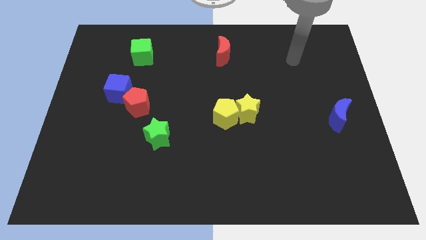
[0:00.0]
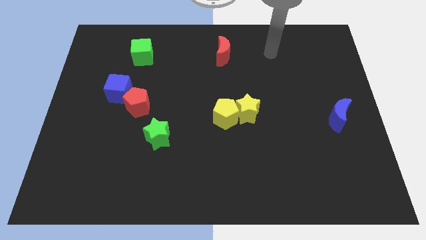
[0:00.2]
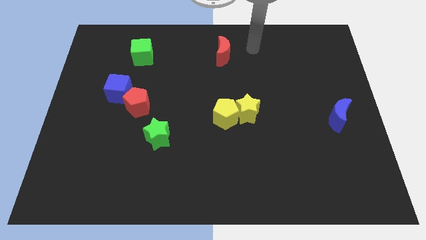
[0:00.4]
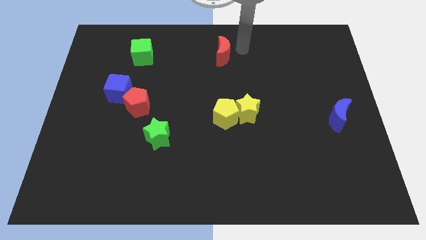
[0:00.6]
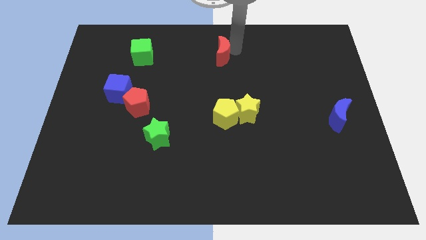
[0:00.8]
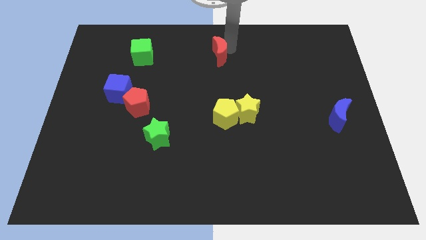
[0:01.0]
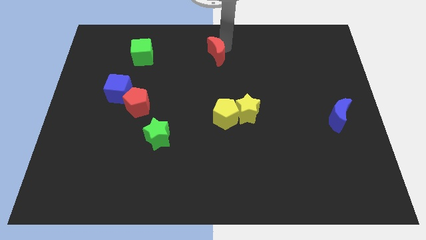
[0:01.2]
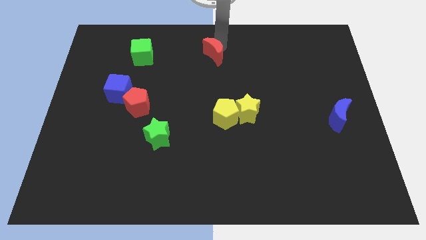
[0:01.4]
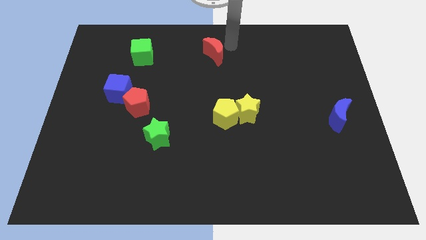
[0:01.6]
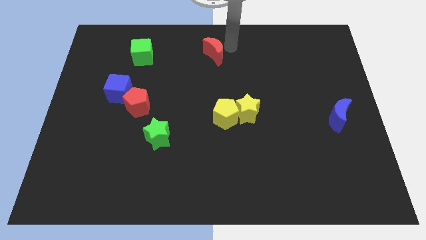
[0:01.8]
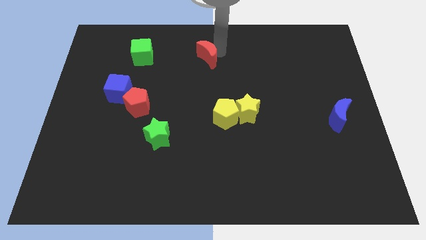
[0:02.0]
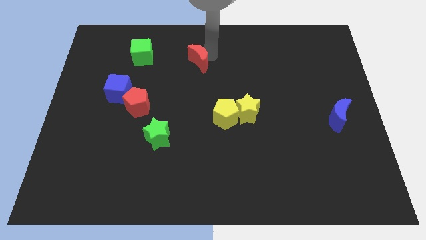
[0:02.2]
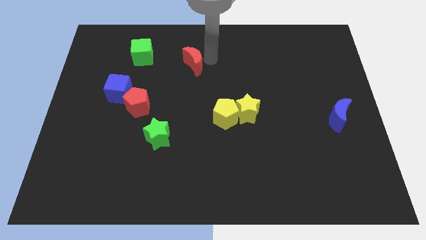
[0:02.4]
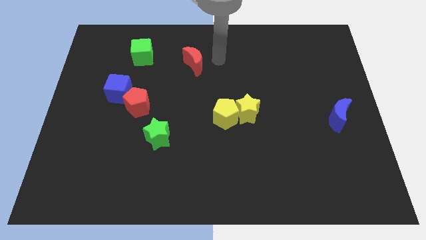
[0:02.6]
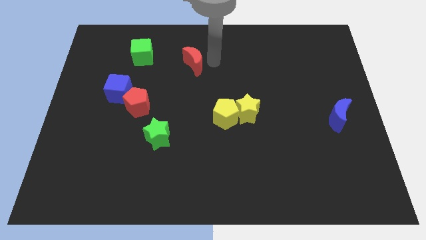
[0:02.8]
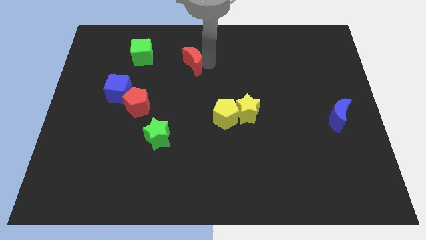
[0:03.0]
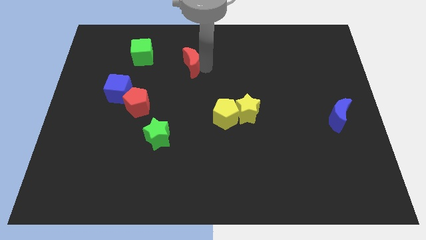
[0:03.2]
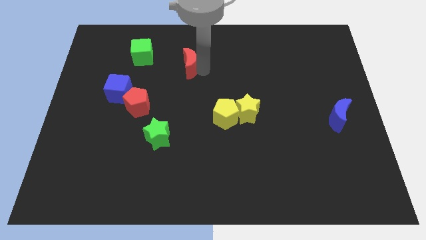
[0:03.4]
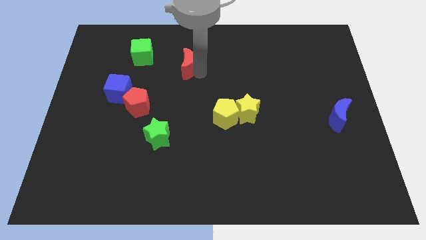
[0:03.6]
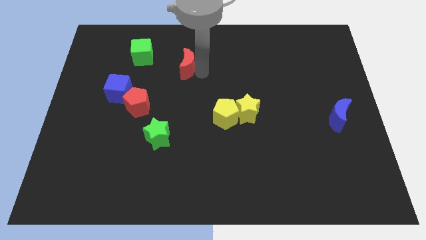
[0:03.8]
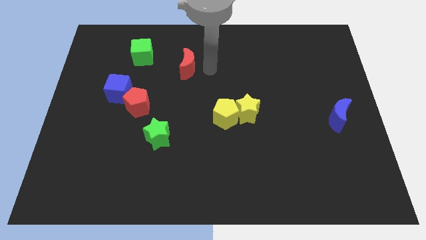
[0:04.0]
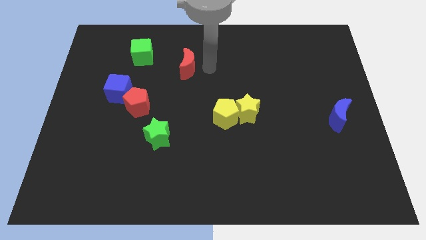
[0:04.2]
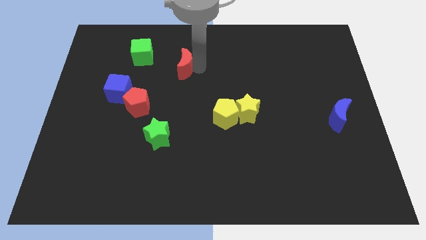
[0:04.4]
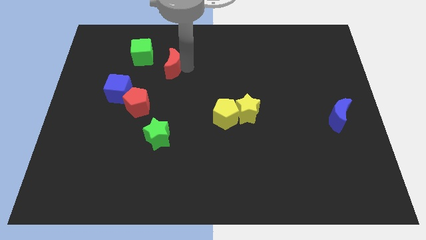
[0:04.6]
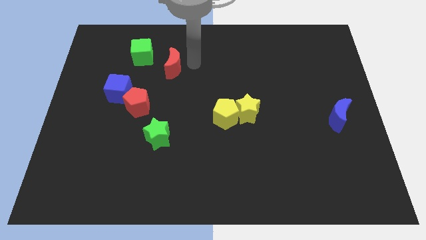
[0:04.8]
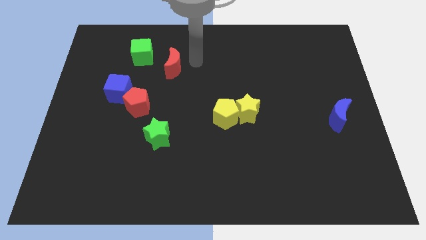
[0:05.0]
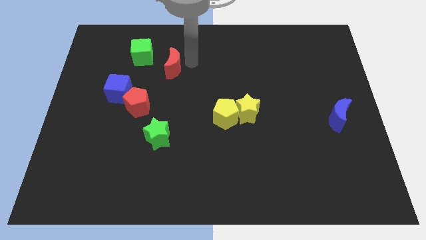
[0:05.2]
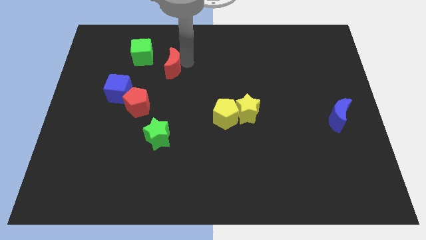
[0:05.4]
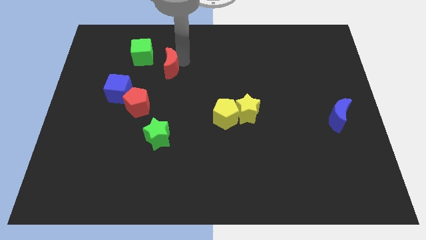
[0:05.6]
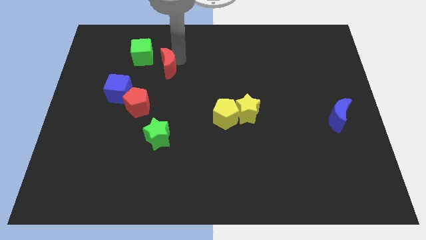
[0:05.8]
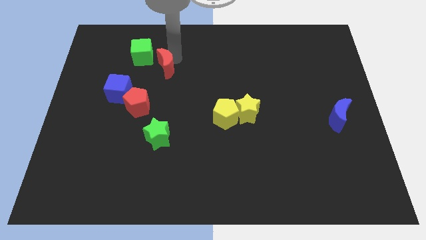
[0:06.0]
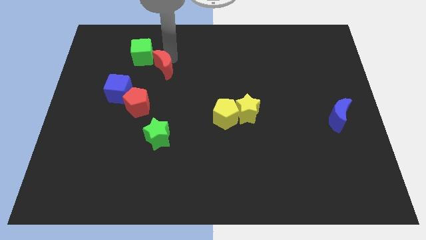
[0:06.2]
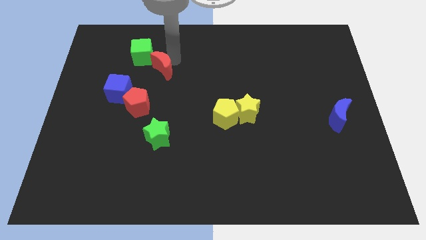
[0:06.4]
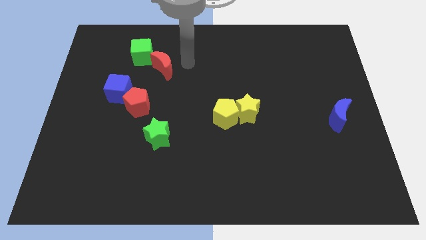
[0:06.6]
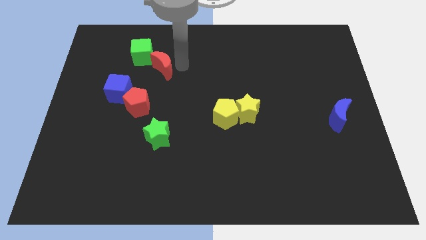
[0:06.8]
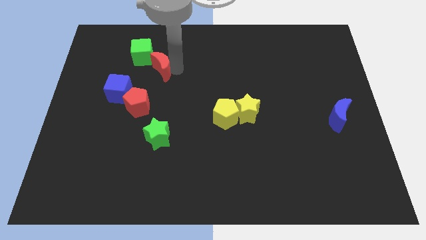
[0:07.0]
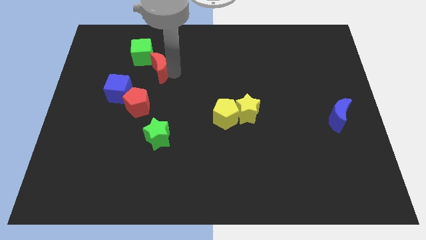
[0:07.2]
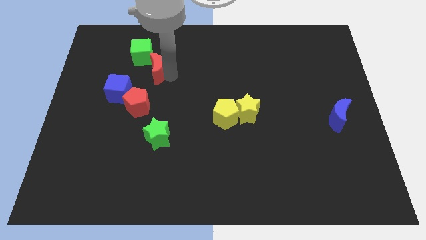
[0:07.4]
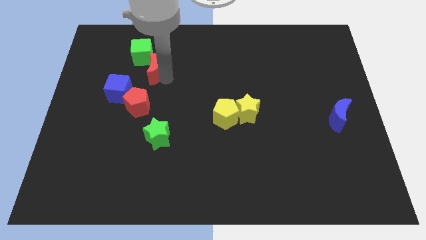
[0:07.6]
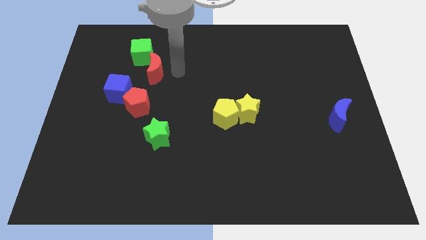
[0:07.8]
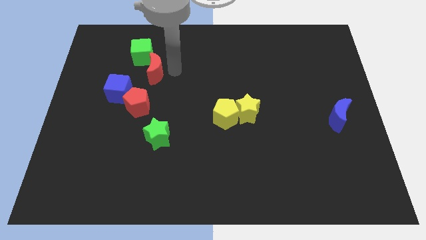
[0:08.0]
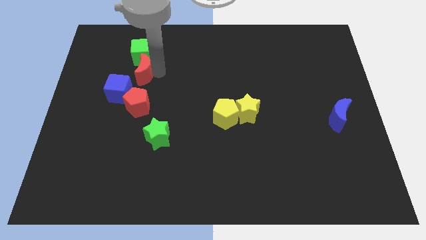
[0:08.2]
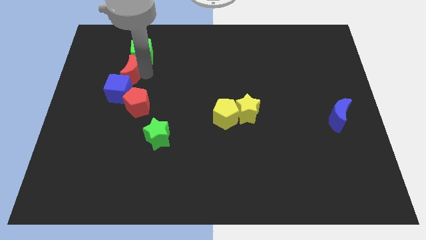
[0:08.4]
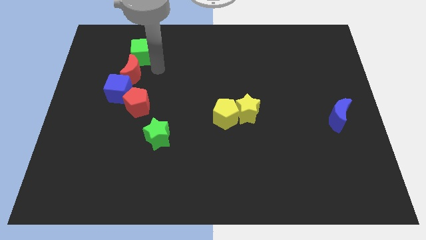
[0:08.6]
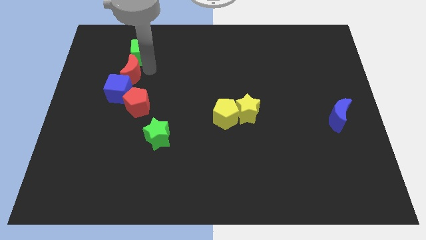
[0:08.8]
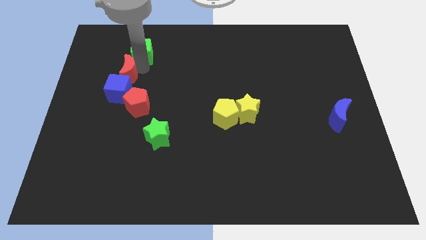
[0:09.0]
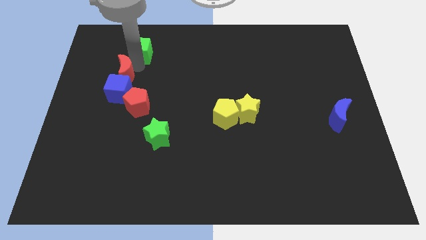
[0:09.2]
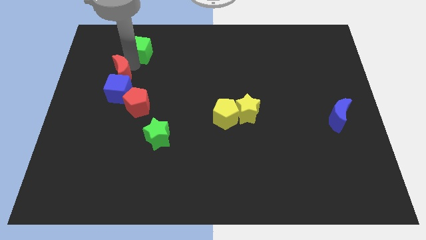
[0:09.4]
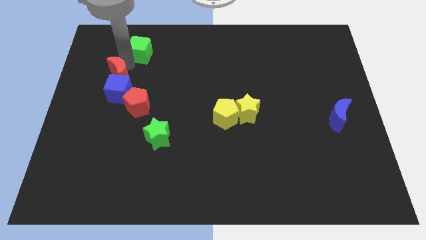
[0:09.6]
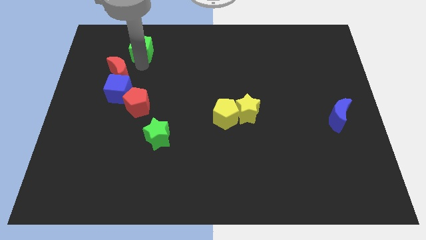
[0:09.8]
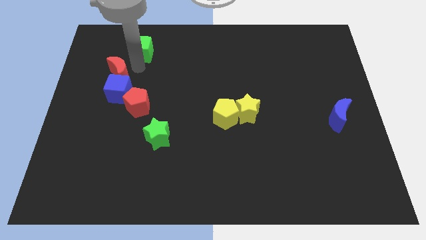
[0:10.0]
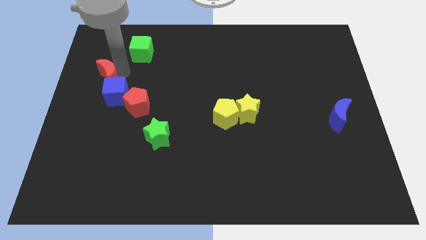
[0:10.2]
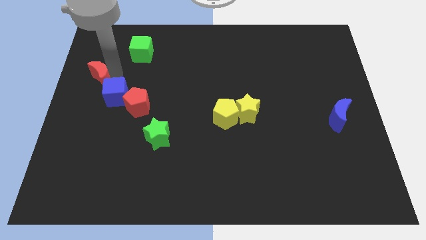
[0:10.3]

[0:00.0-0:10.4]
put the red moon to the center left

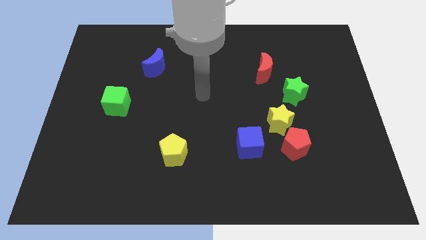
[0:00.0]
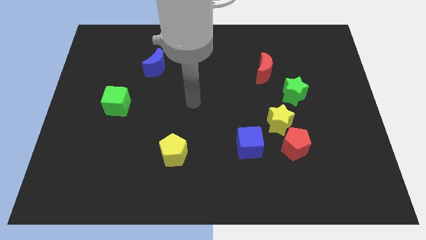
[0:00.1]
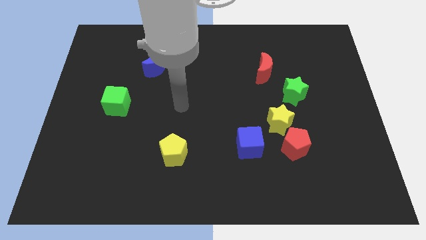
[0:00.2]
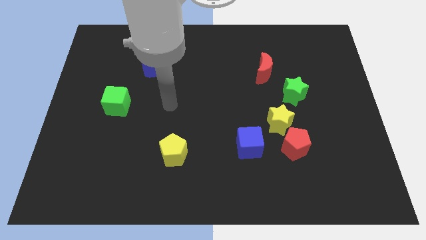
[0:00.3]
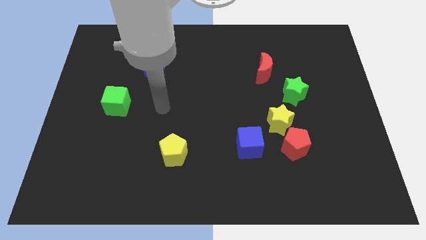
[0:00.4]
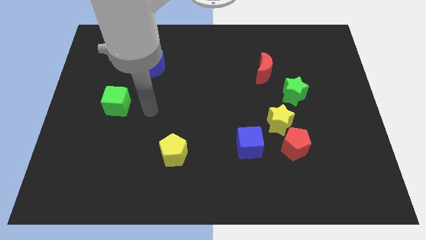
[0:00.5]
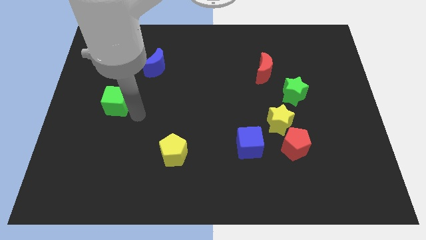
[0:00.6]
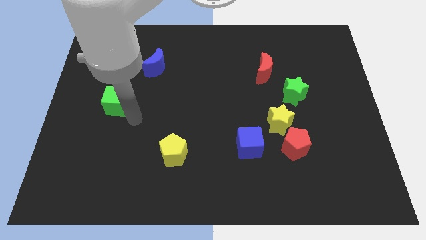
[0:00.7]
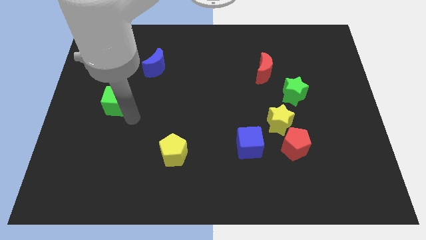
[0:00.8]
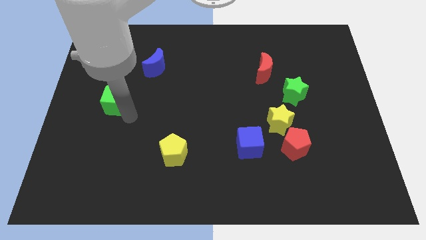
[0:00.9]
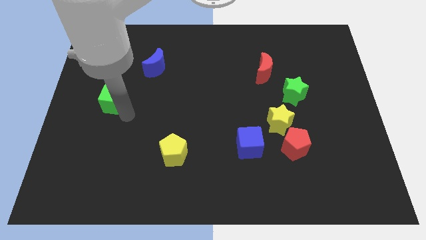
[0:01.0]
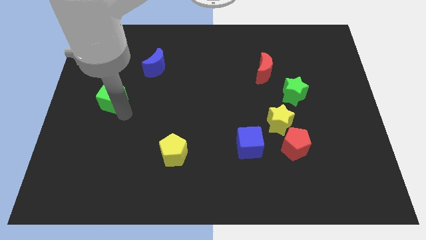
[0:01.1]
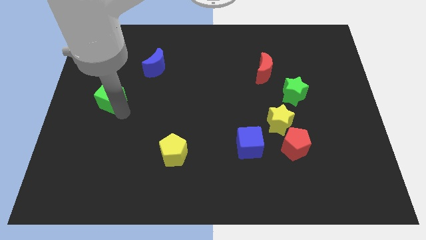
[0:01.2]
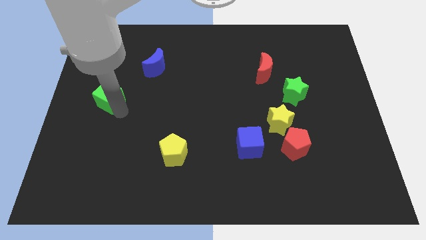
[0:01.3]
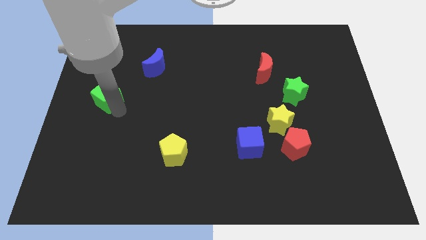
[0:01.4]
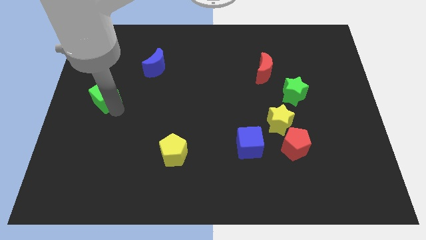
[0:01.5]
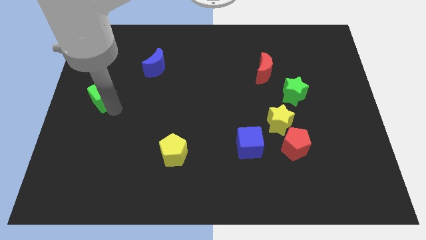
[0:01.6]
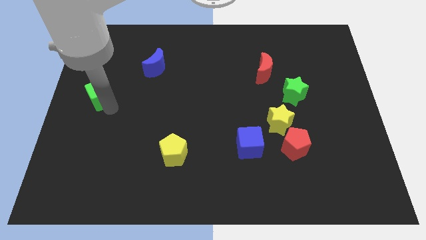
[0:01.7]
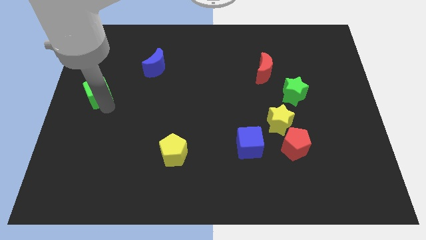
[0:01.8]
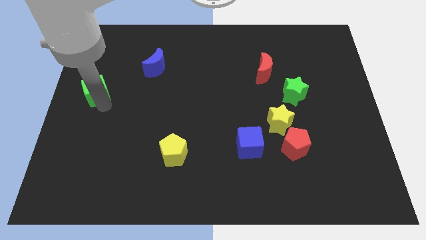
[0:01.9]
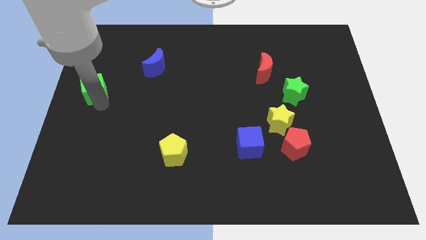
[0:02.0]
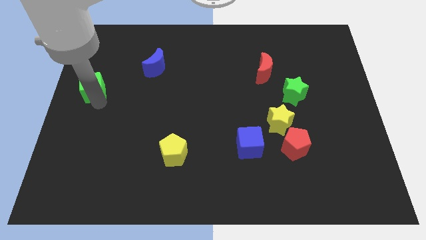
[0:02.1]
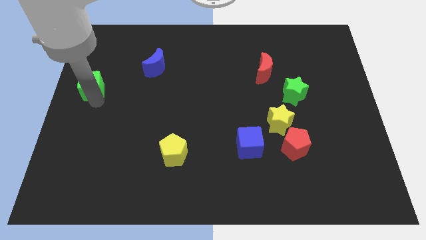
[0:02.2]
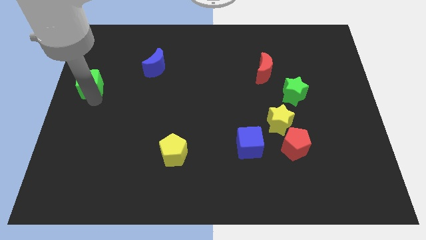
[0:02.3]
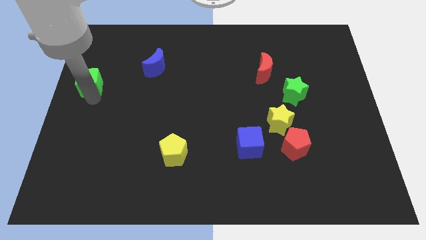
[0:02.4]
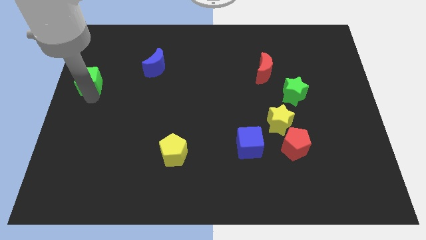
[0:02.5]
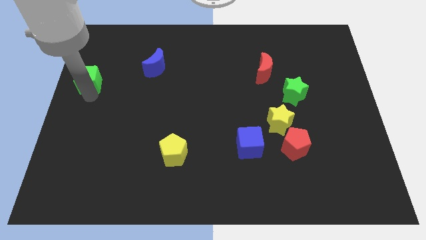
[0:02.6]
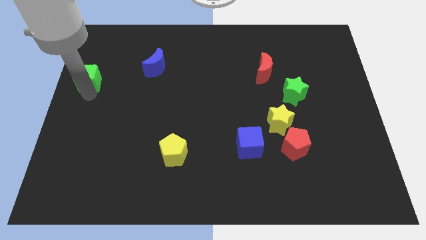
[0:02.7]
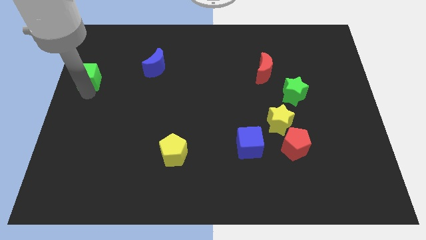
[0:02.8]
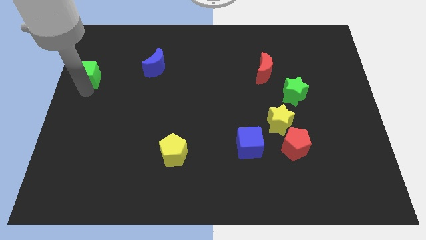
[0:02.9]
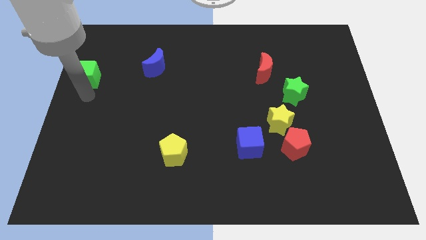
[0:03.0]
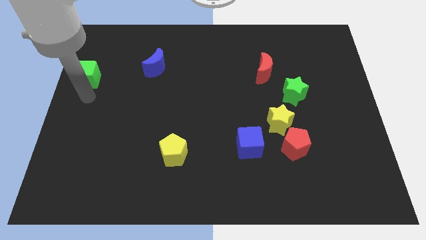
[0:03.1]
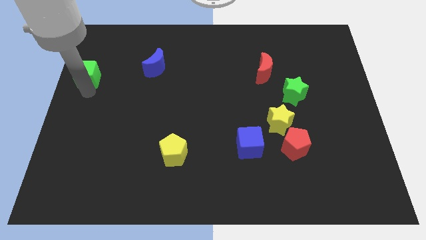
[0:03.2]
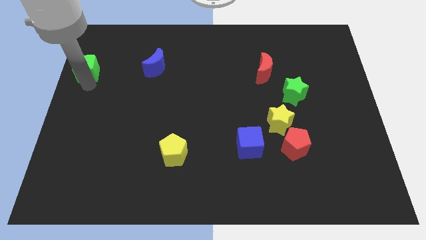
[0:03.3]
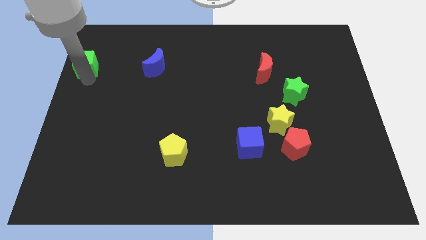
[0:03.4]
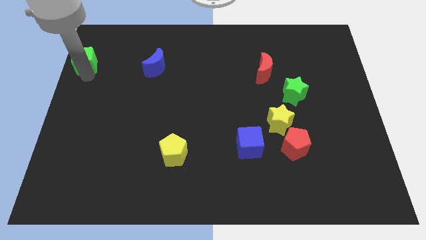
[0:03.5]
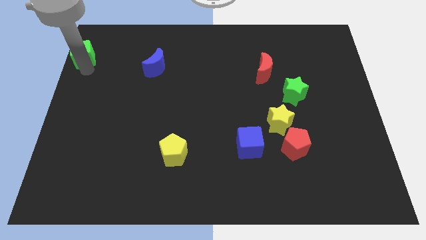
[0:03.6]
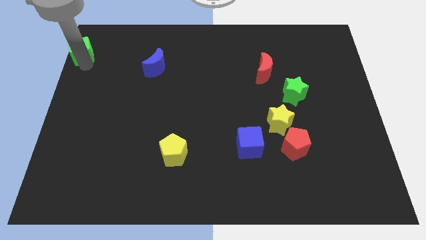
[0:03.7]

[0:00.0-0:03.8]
slide the green cube to the upper left corner
